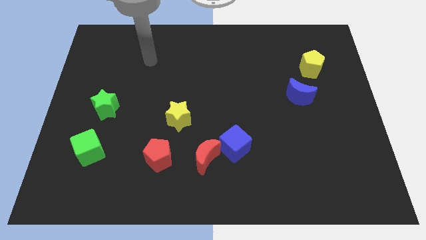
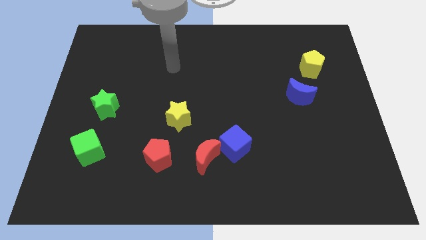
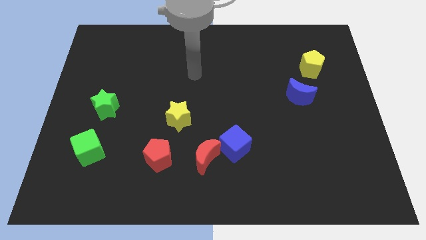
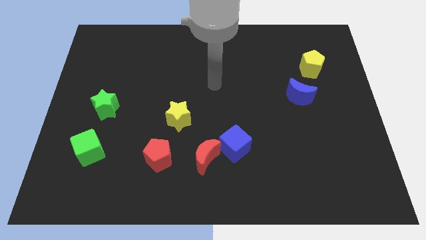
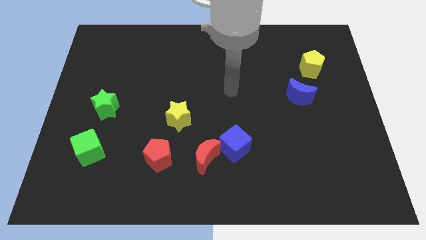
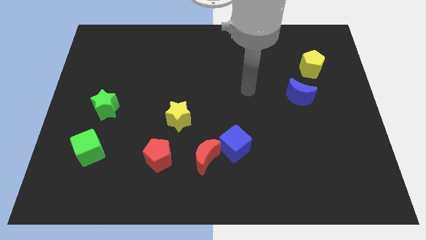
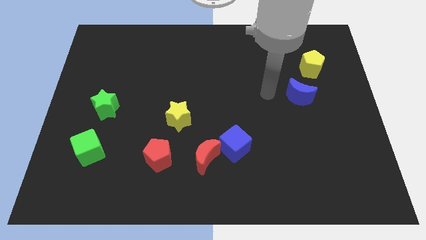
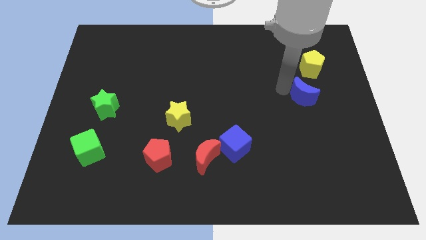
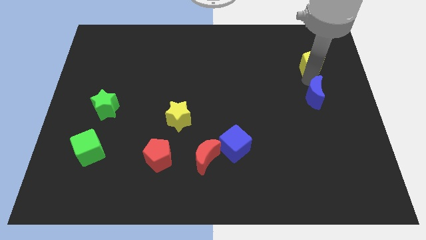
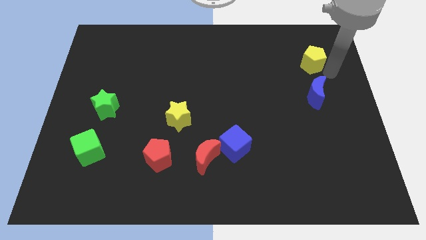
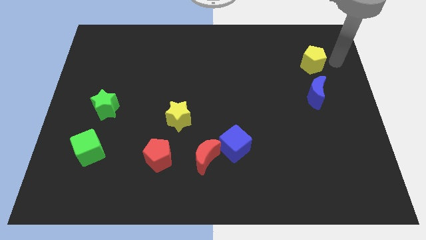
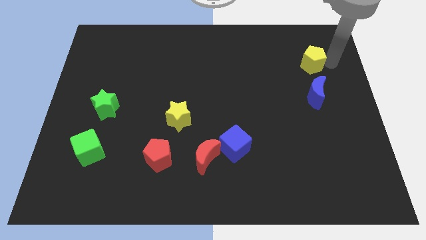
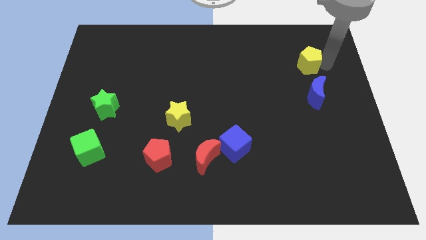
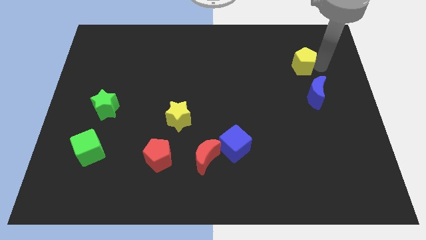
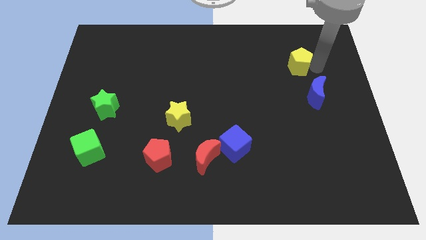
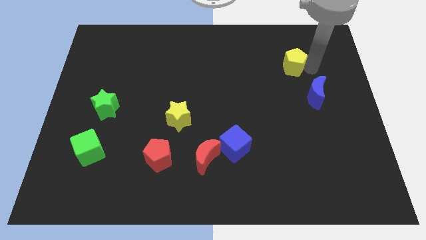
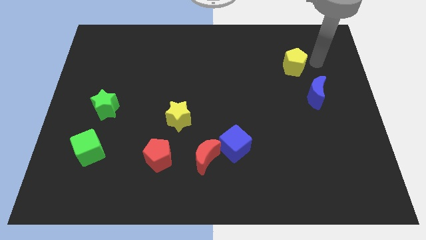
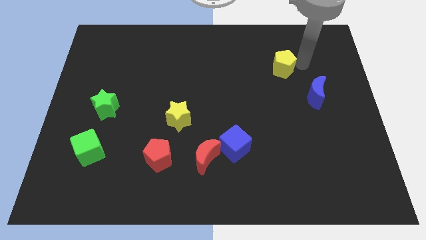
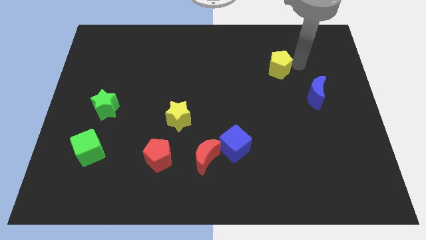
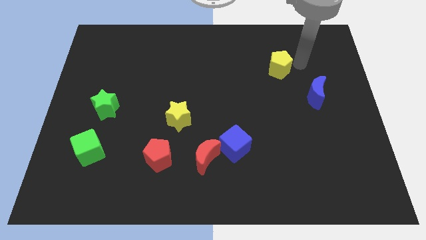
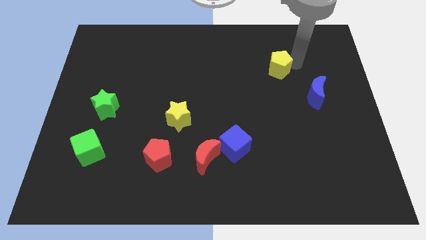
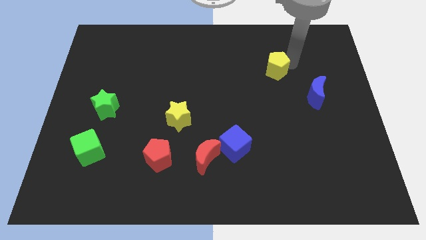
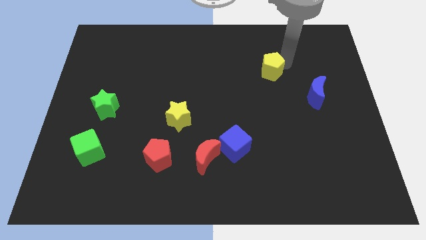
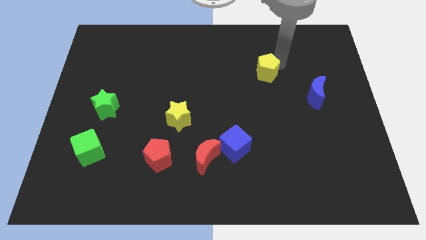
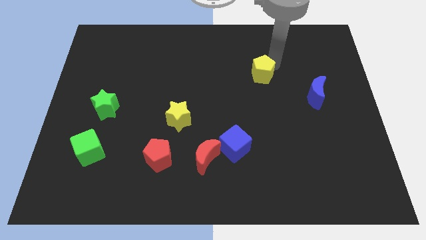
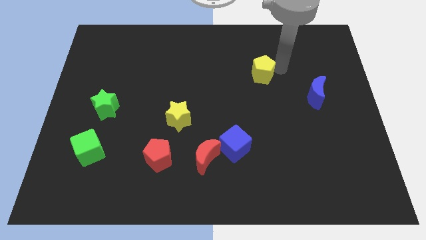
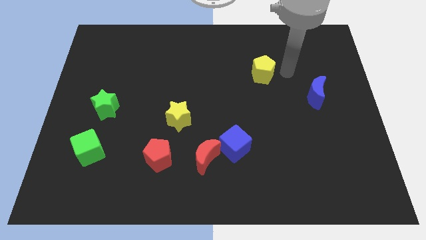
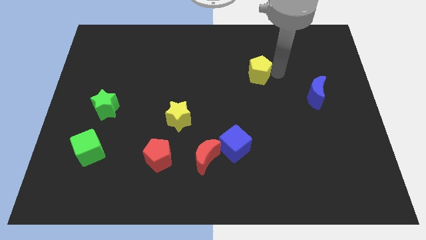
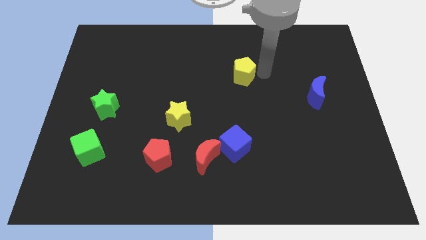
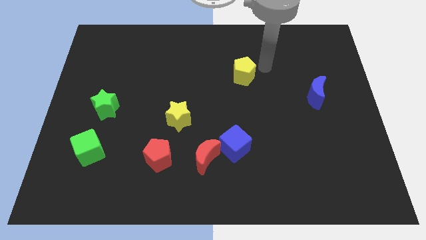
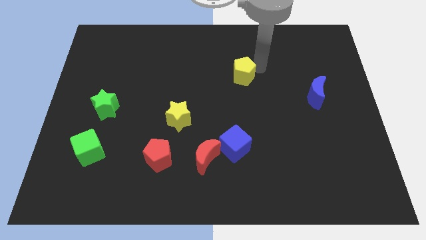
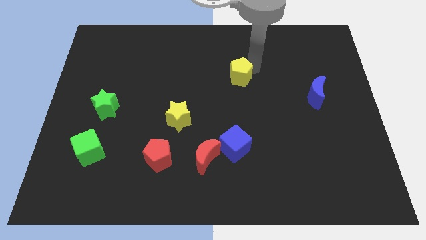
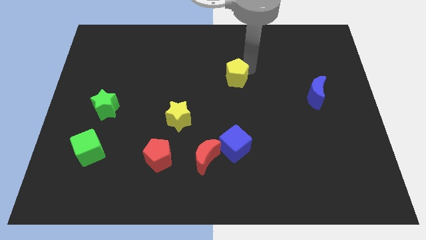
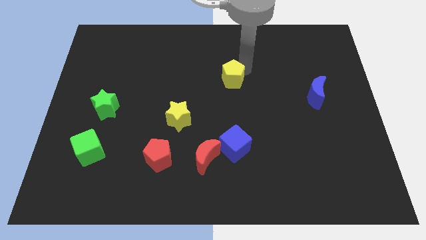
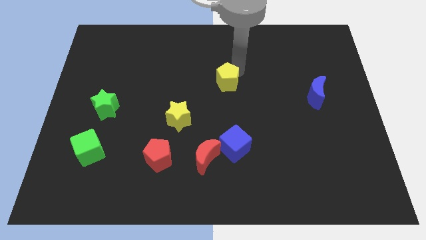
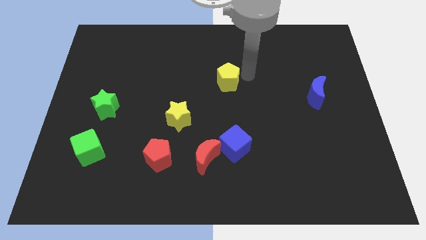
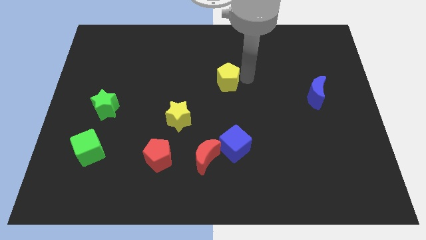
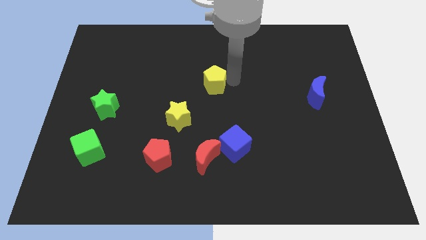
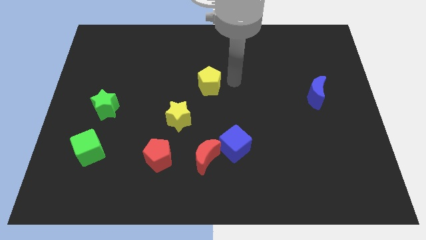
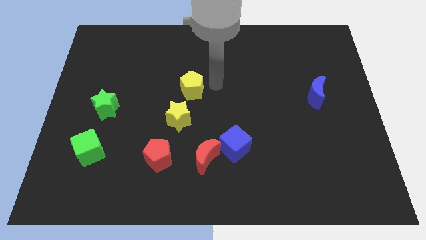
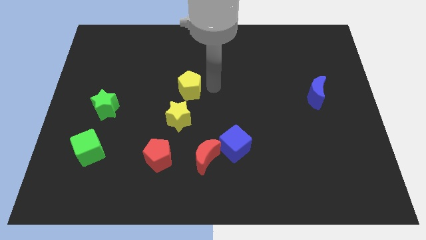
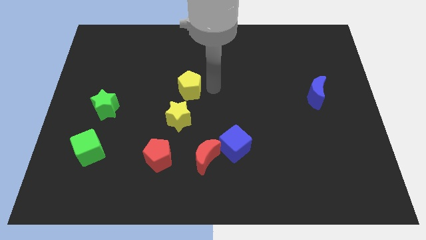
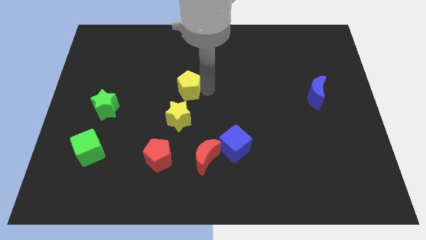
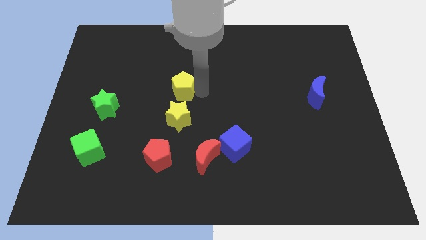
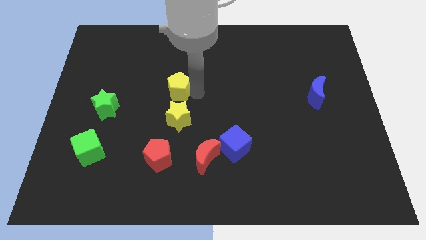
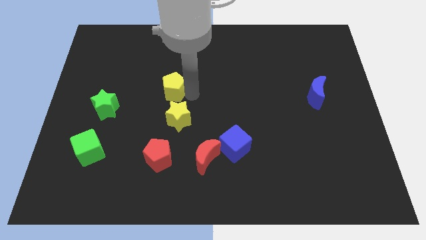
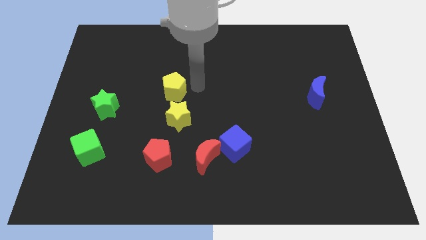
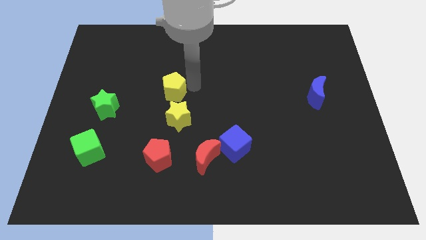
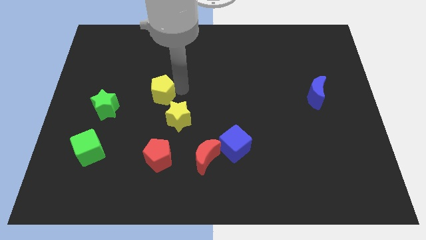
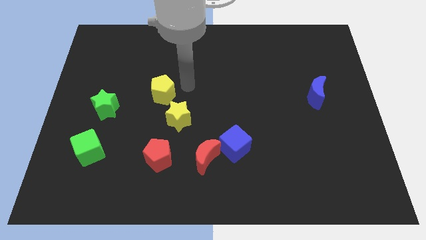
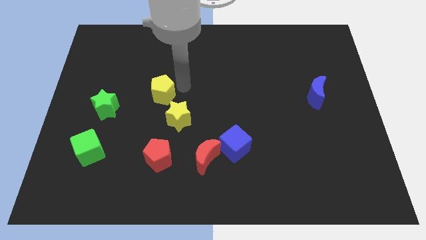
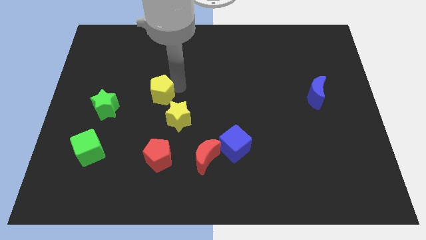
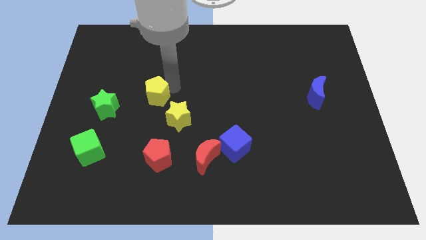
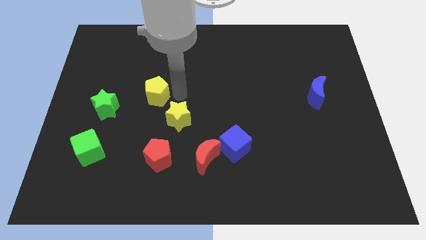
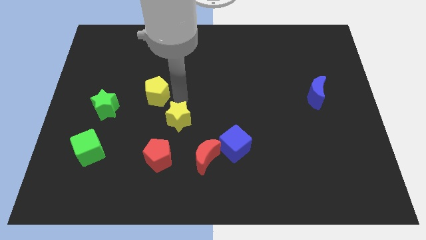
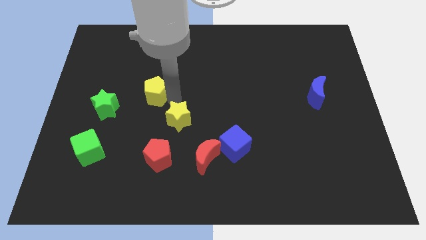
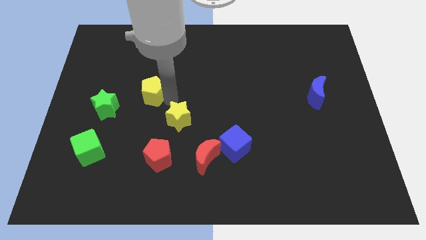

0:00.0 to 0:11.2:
slide the yellow pentagon to the top right side of the green star

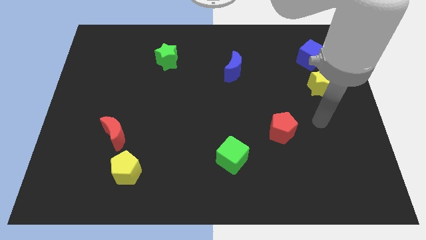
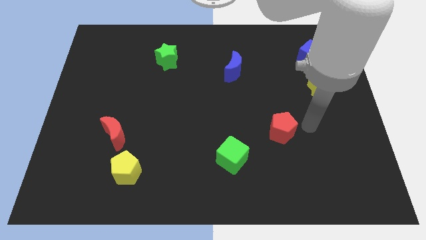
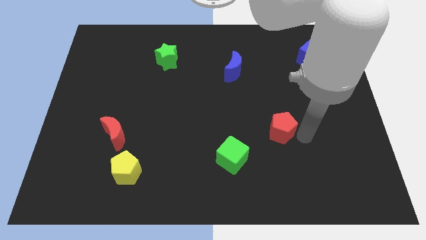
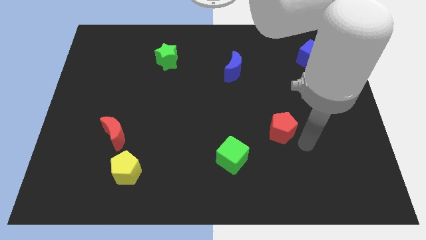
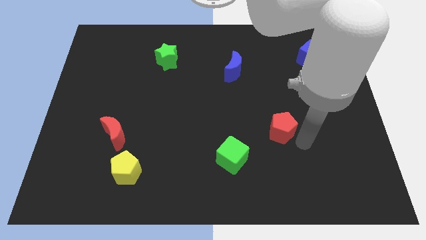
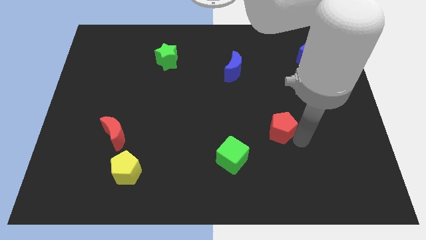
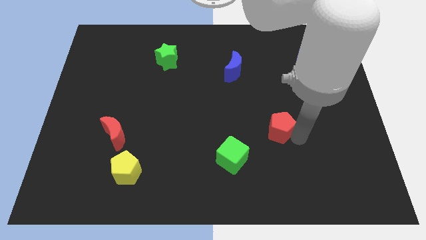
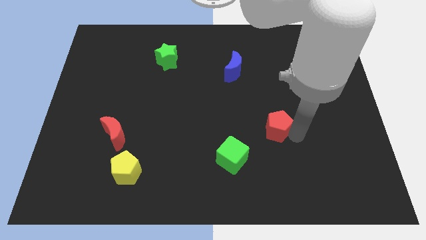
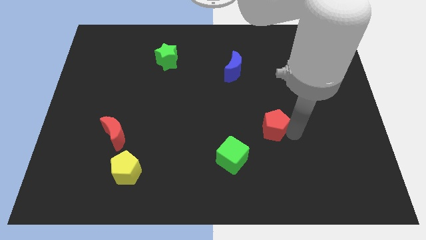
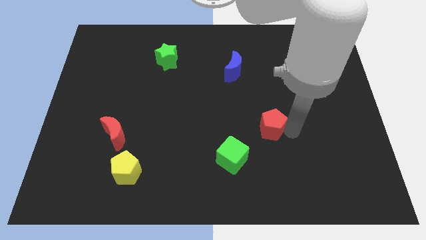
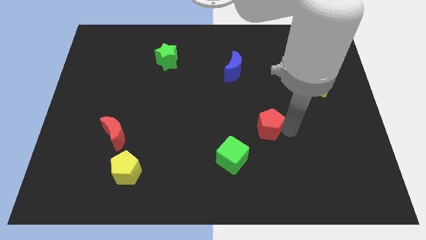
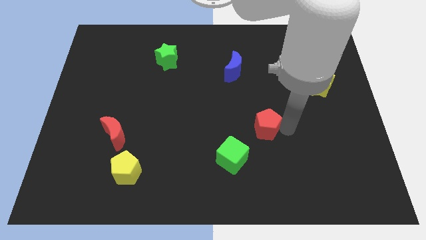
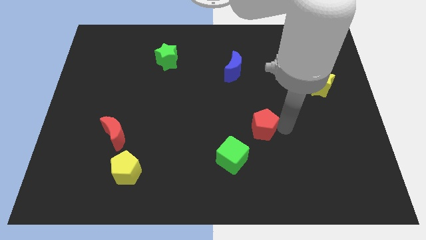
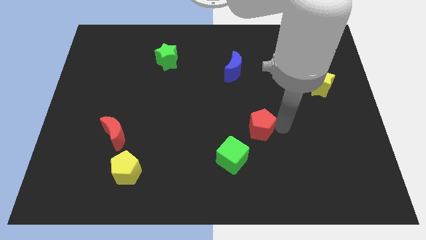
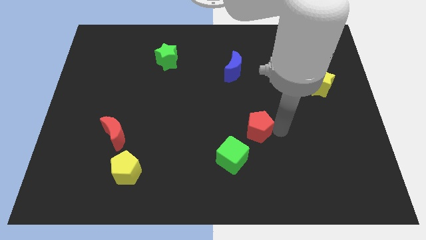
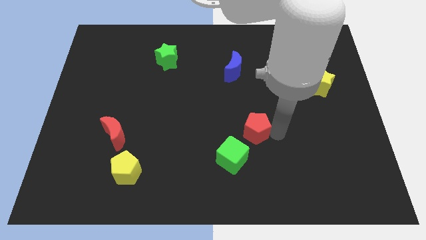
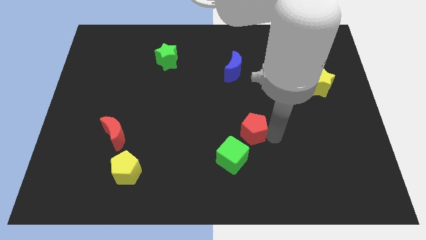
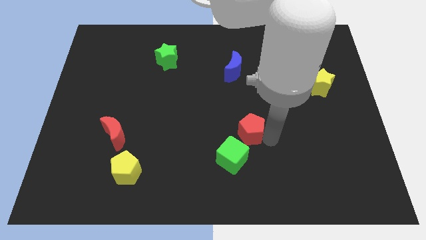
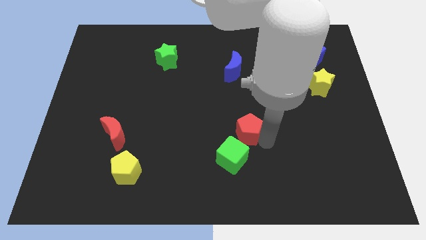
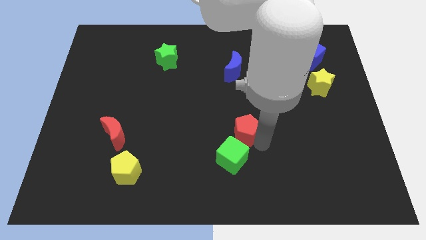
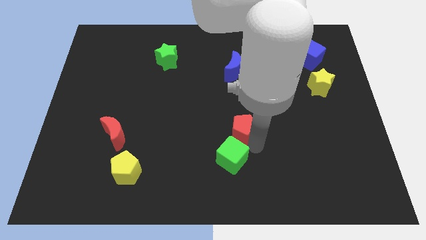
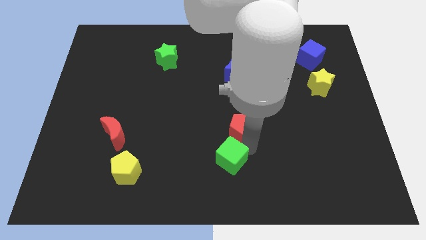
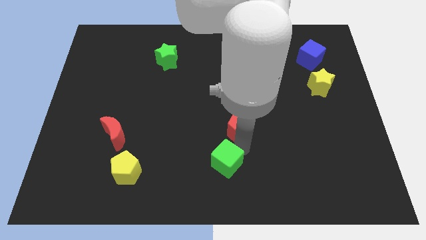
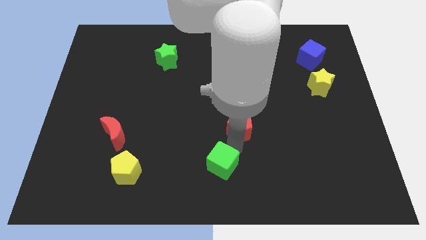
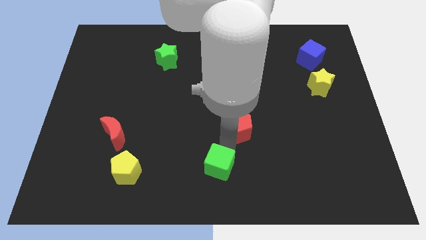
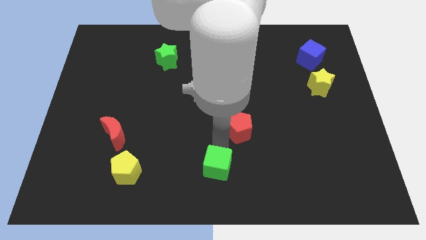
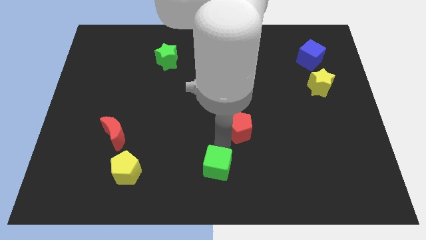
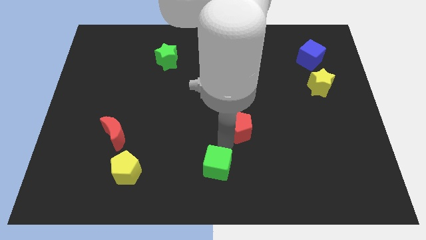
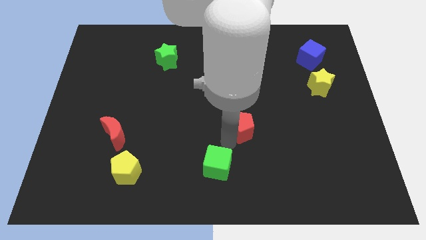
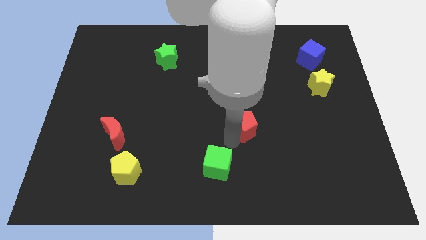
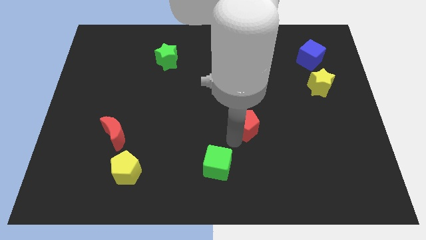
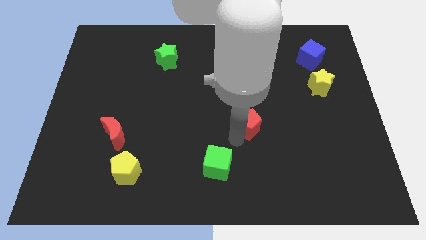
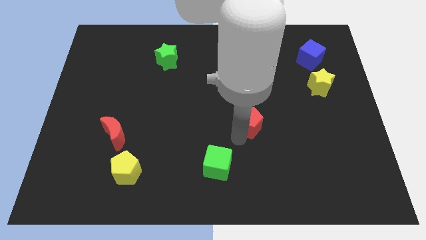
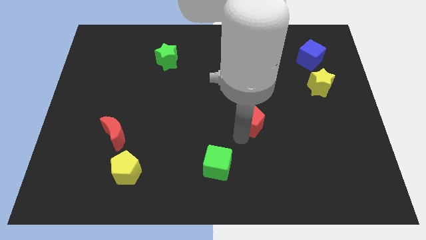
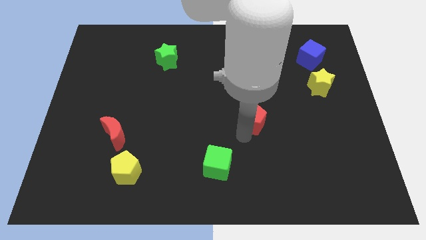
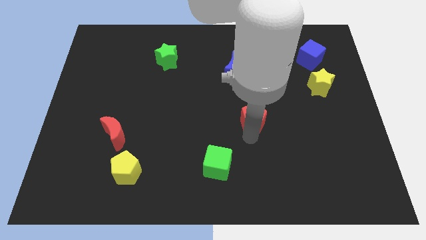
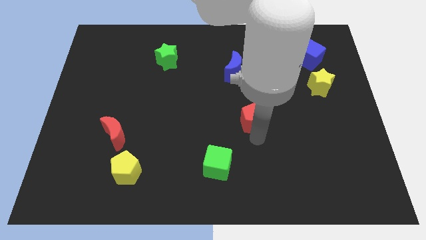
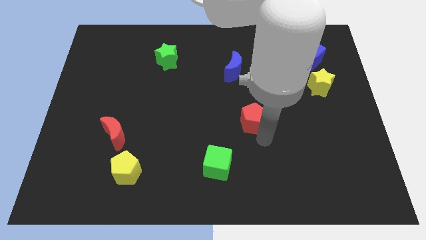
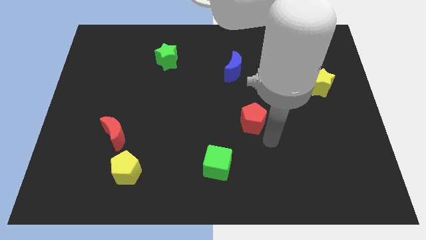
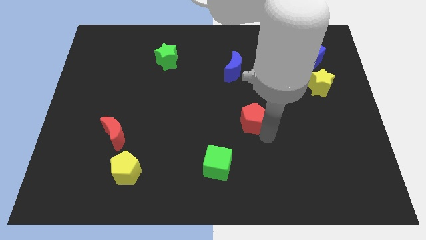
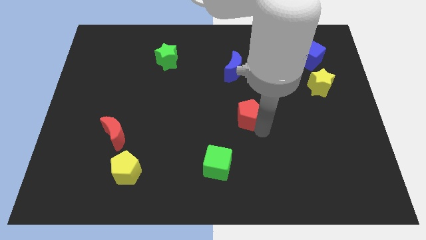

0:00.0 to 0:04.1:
put the red pentagon to the bottom side of the blue moon
